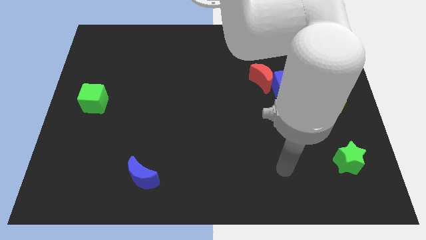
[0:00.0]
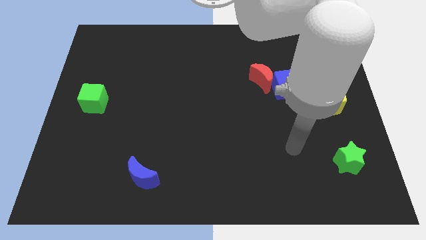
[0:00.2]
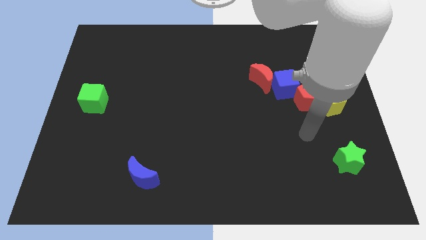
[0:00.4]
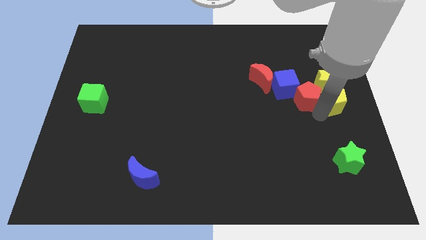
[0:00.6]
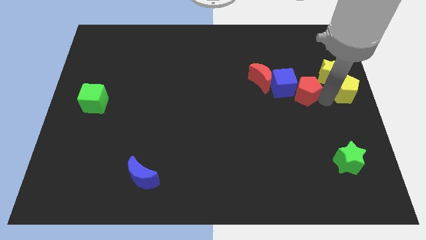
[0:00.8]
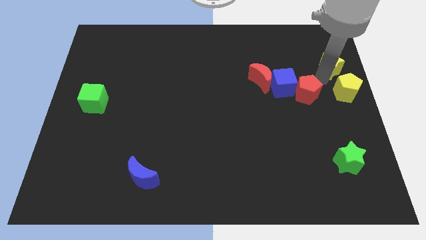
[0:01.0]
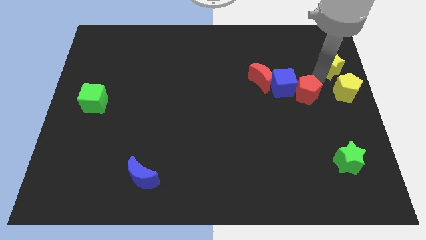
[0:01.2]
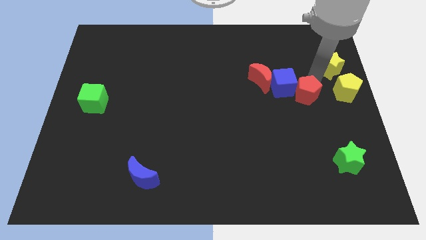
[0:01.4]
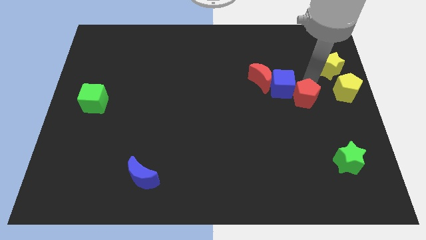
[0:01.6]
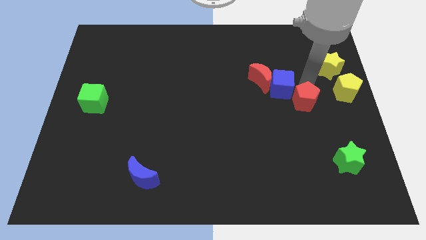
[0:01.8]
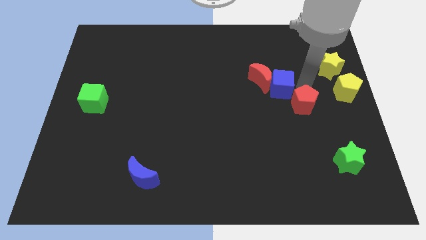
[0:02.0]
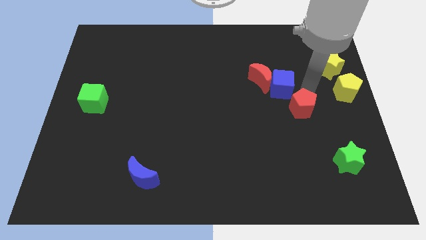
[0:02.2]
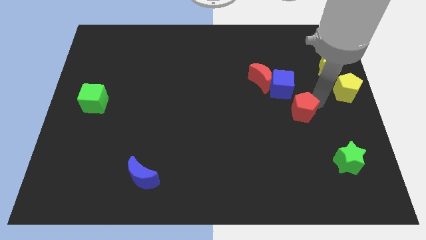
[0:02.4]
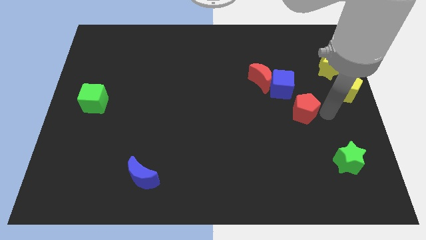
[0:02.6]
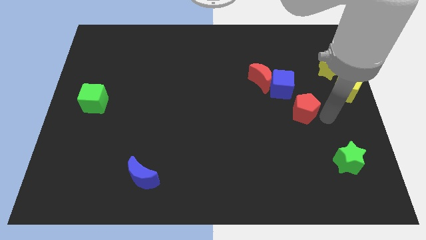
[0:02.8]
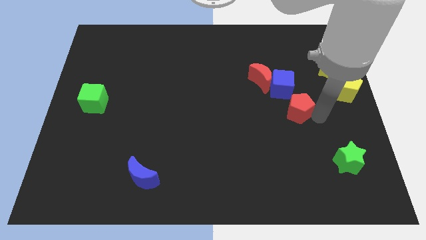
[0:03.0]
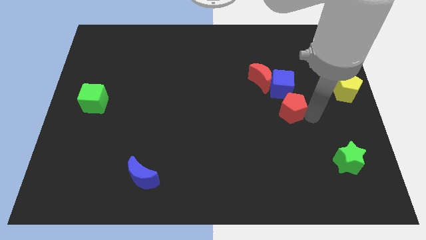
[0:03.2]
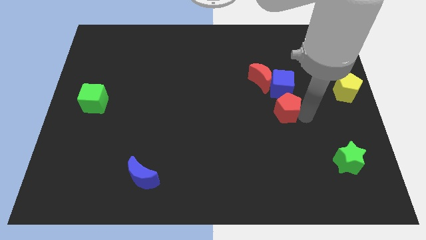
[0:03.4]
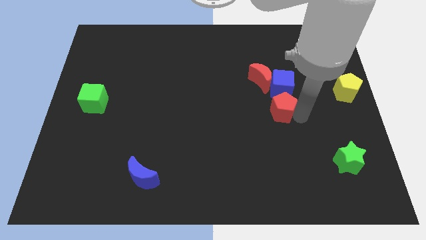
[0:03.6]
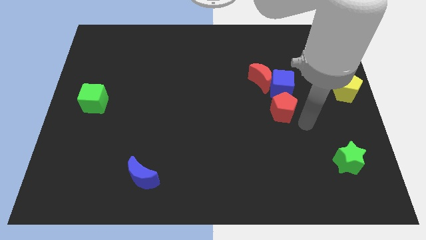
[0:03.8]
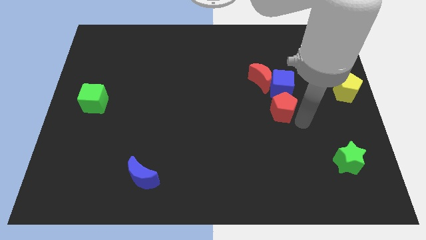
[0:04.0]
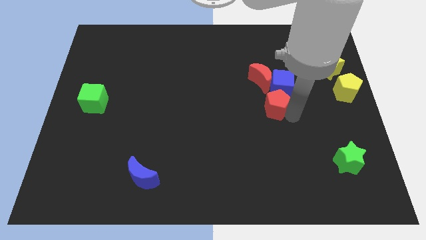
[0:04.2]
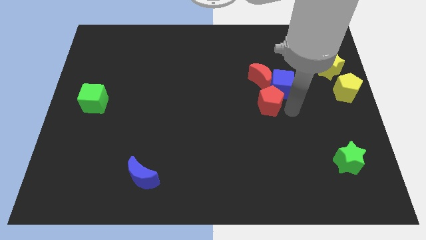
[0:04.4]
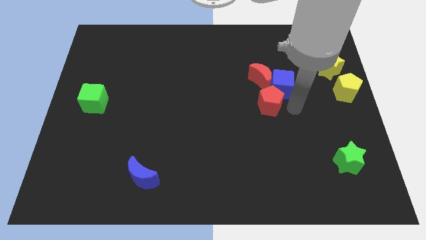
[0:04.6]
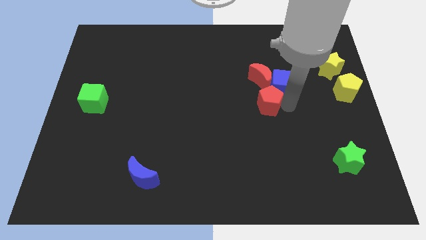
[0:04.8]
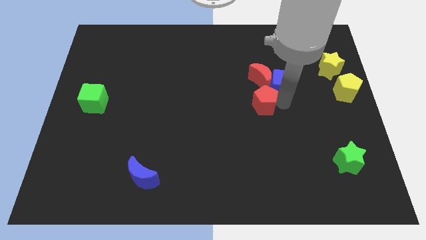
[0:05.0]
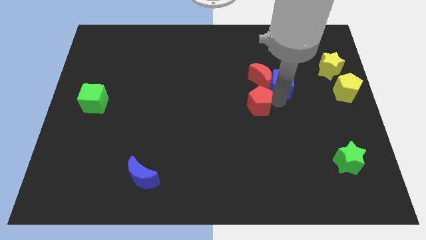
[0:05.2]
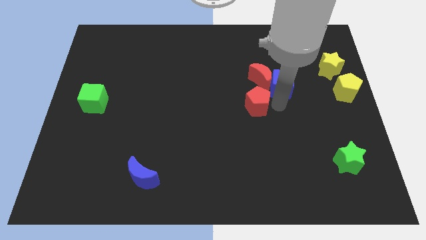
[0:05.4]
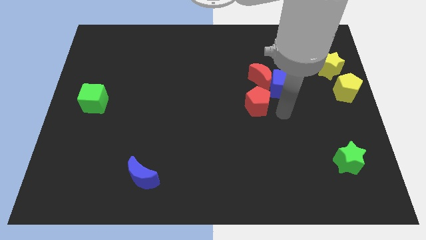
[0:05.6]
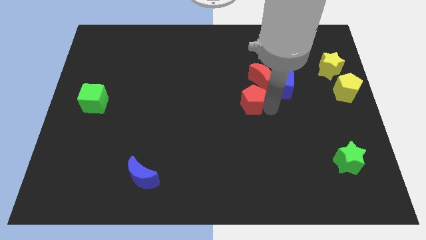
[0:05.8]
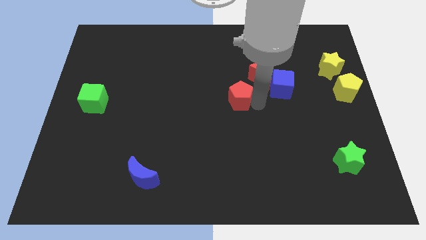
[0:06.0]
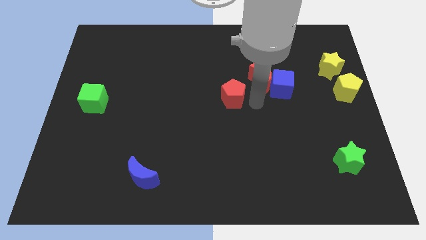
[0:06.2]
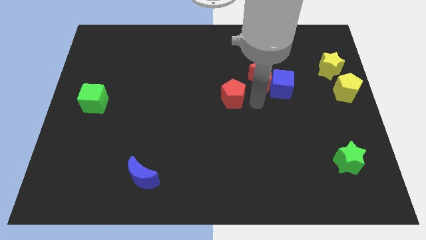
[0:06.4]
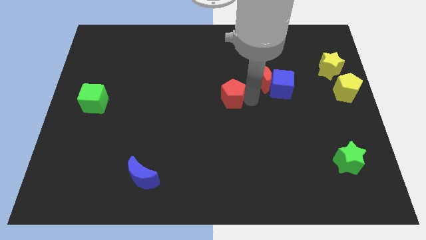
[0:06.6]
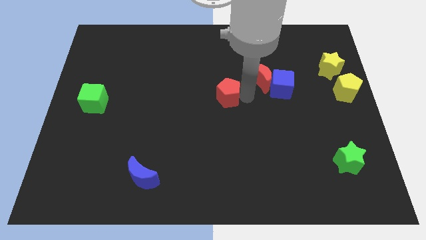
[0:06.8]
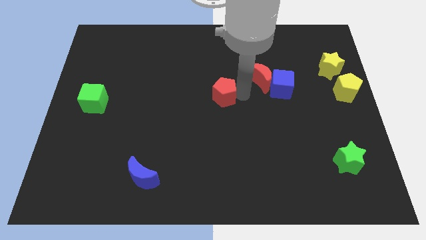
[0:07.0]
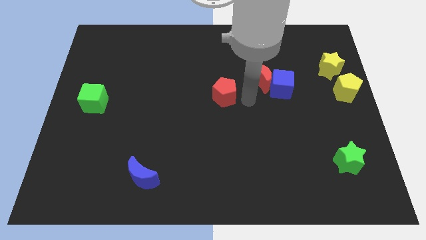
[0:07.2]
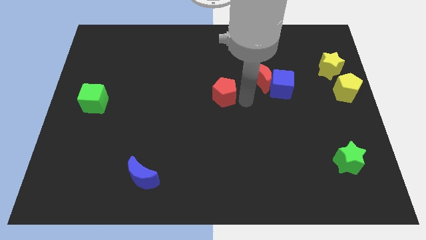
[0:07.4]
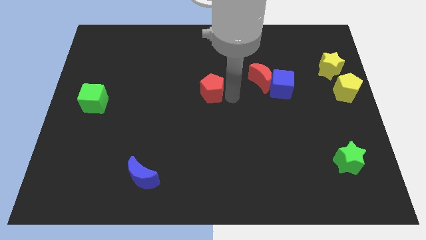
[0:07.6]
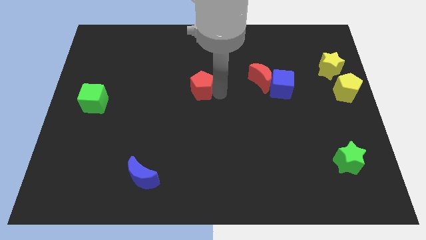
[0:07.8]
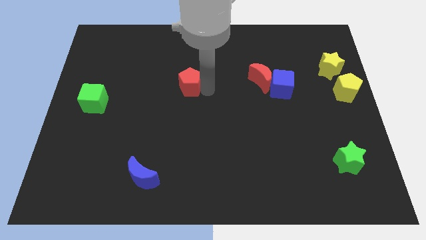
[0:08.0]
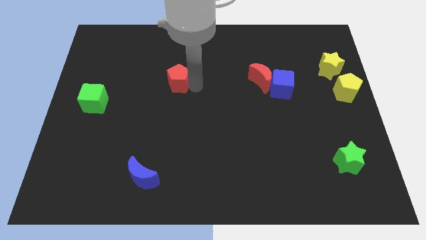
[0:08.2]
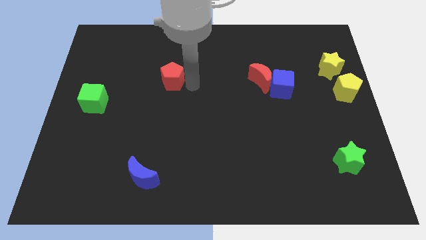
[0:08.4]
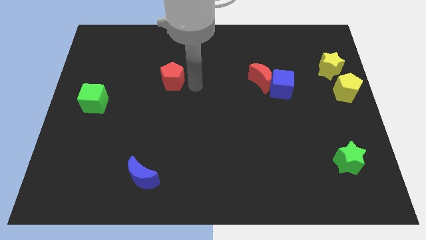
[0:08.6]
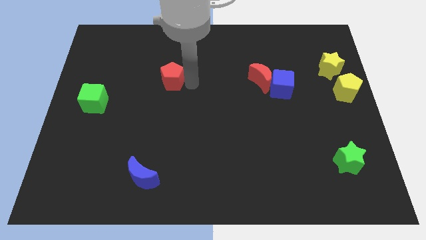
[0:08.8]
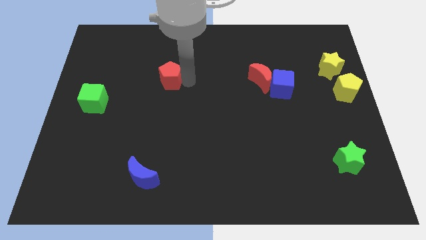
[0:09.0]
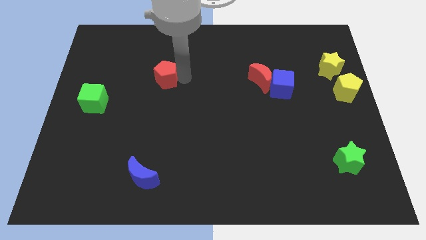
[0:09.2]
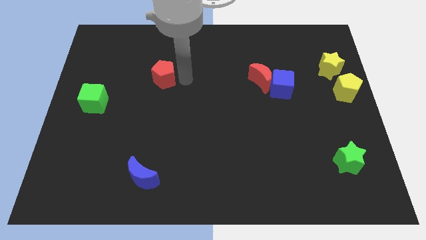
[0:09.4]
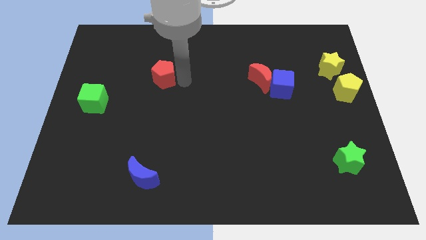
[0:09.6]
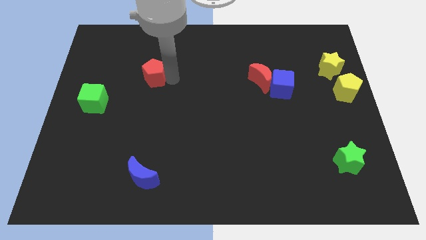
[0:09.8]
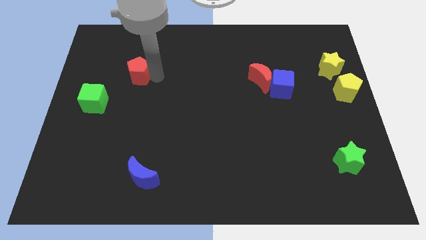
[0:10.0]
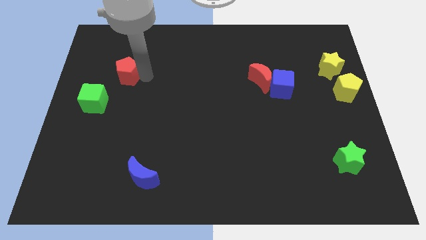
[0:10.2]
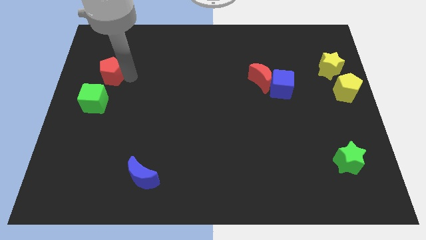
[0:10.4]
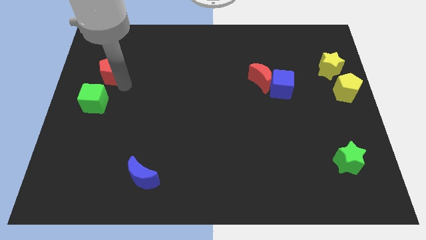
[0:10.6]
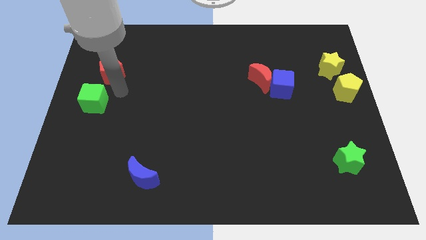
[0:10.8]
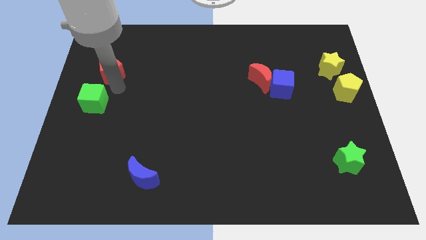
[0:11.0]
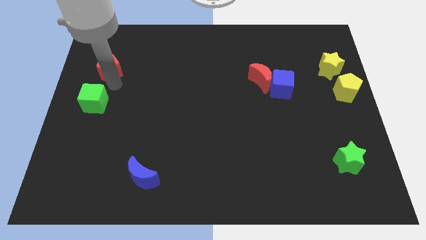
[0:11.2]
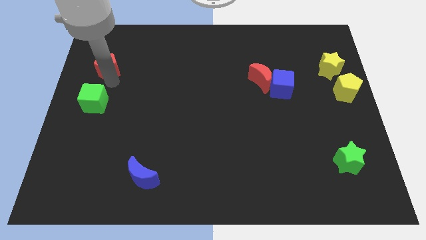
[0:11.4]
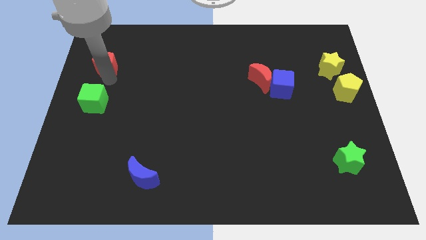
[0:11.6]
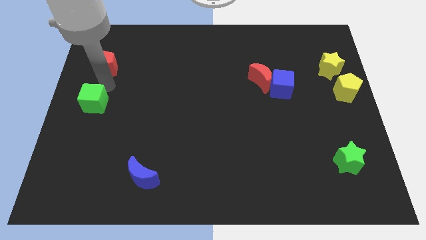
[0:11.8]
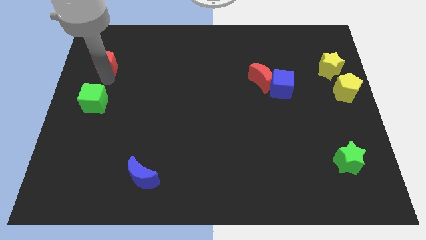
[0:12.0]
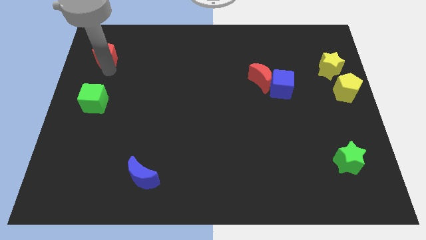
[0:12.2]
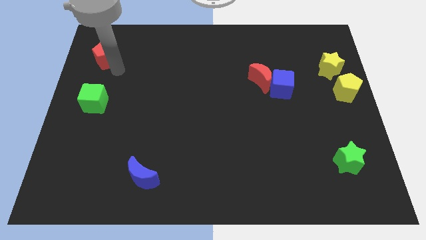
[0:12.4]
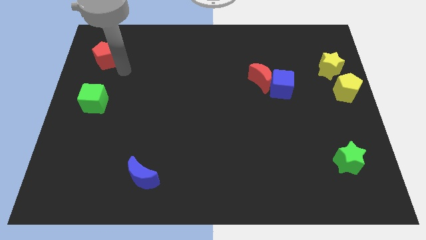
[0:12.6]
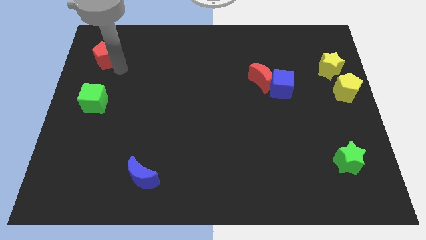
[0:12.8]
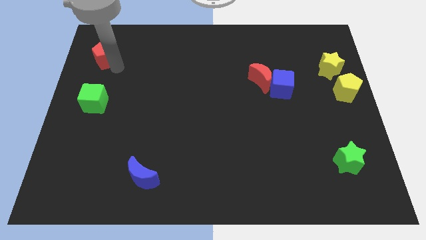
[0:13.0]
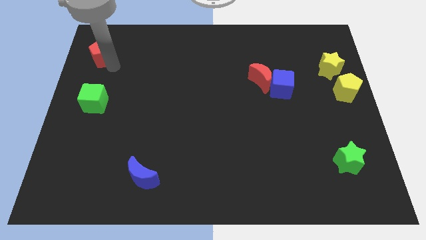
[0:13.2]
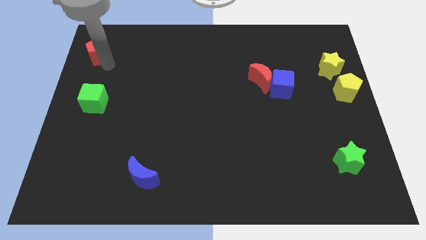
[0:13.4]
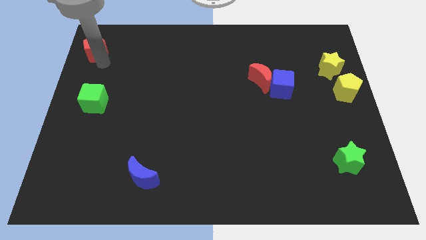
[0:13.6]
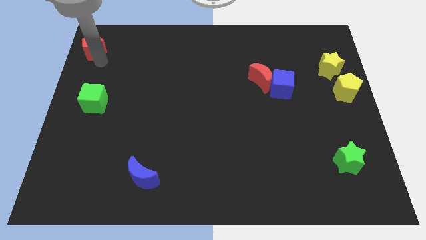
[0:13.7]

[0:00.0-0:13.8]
slide the red pentagon to the top left of the board

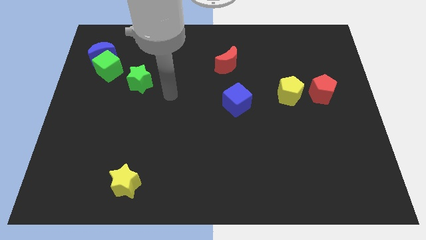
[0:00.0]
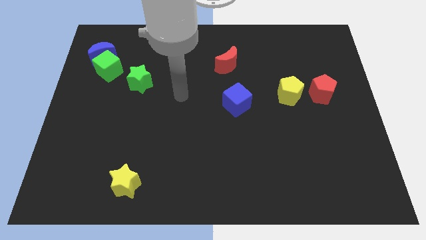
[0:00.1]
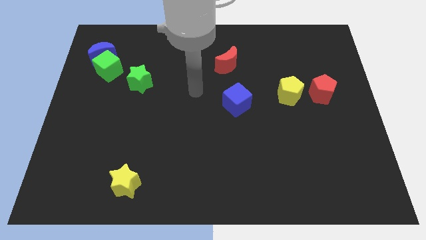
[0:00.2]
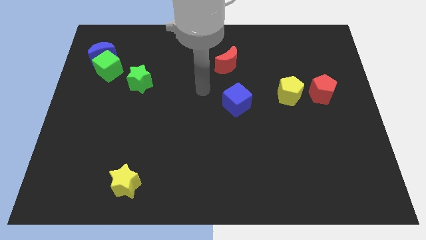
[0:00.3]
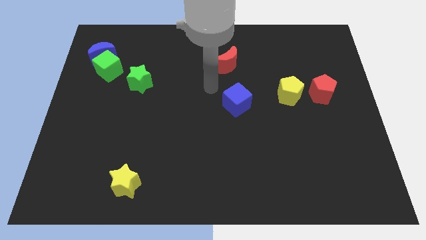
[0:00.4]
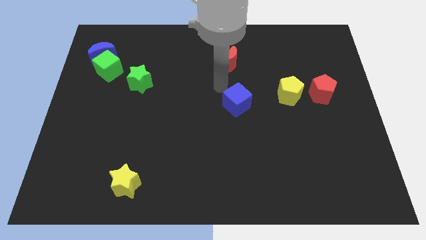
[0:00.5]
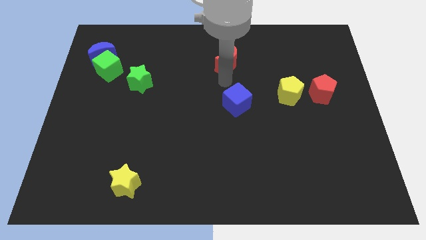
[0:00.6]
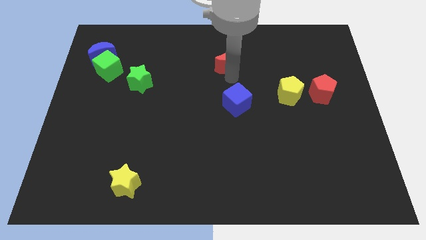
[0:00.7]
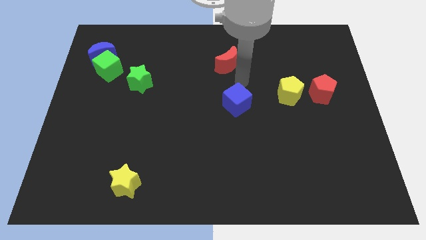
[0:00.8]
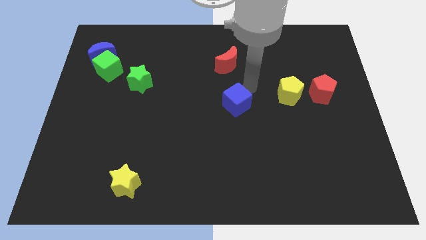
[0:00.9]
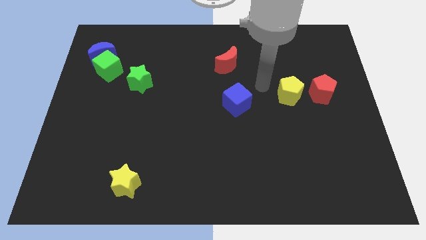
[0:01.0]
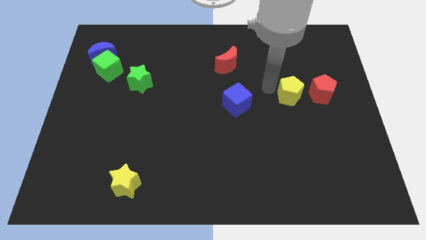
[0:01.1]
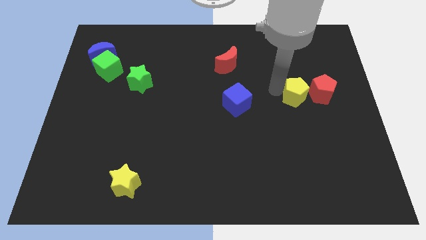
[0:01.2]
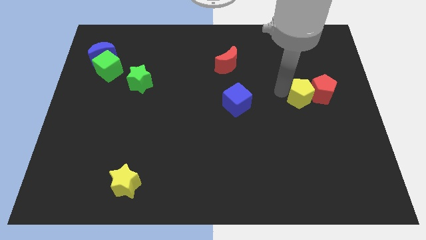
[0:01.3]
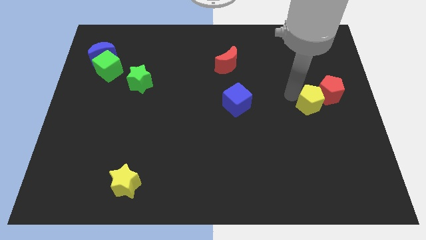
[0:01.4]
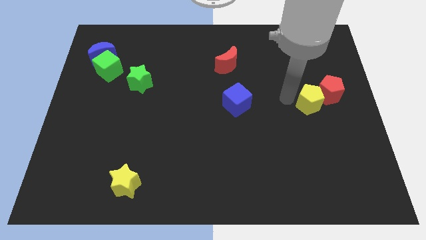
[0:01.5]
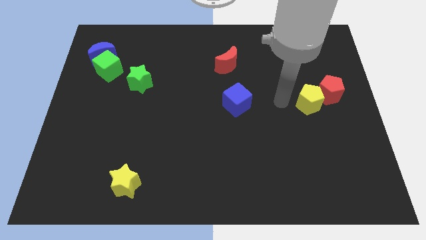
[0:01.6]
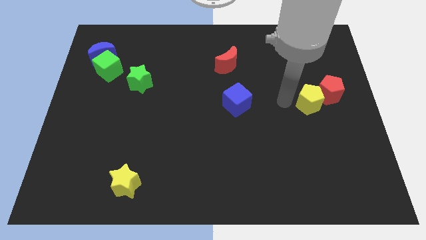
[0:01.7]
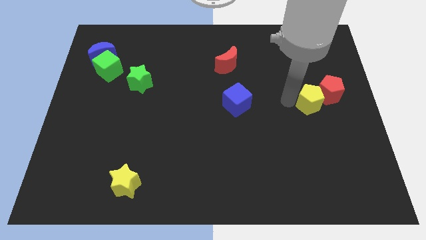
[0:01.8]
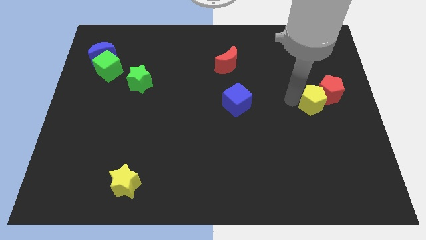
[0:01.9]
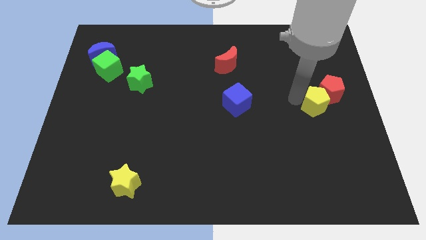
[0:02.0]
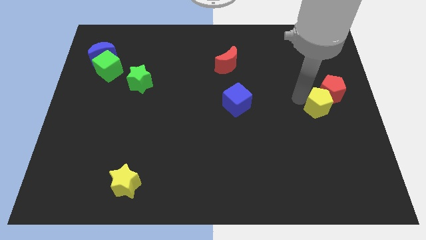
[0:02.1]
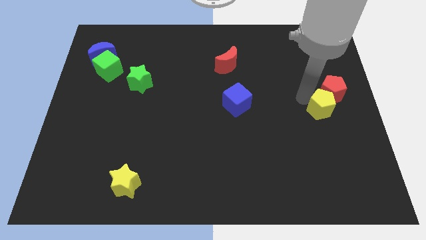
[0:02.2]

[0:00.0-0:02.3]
push the yellow pentagon to the right side of the board
